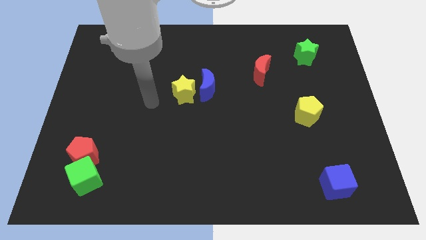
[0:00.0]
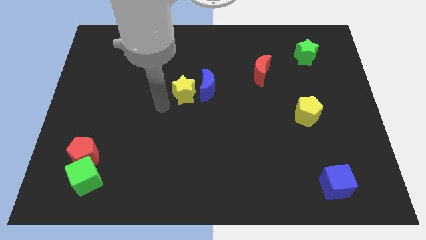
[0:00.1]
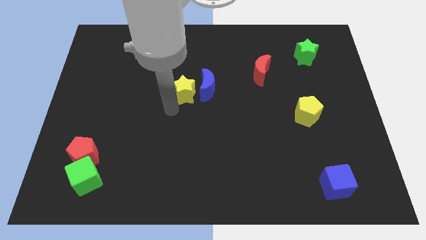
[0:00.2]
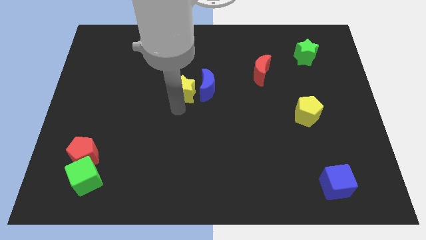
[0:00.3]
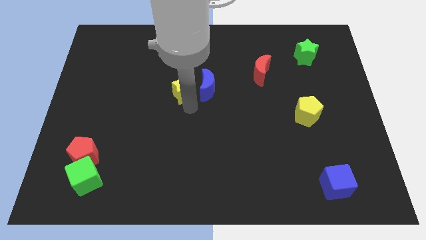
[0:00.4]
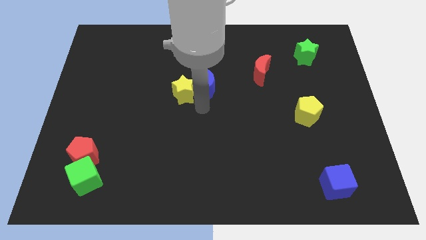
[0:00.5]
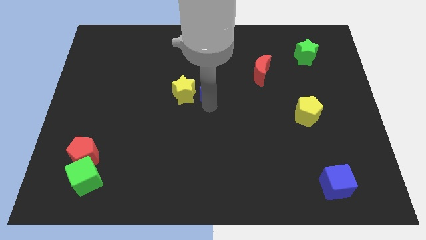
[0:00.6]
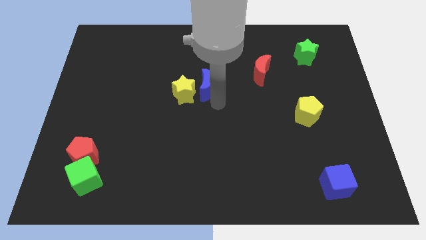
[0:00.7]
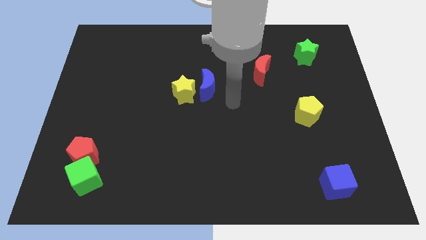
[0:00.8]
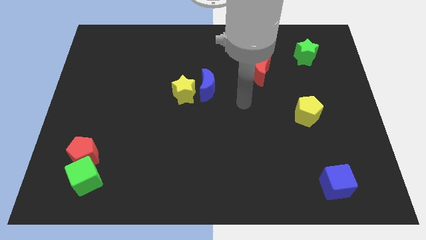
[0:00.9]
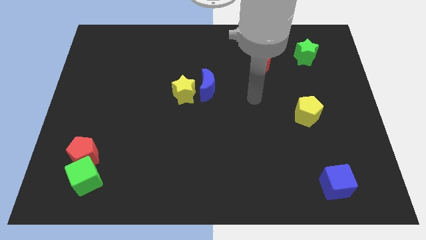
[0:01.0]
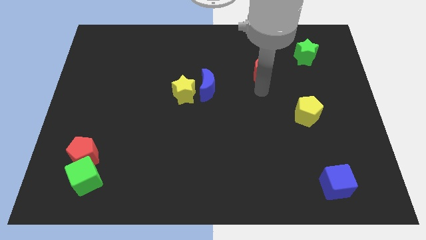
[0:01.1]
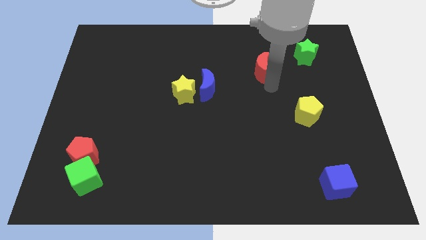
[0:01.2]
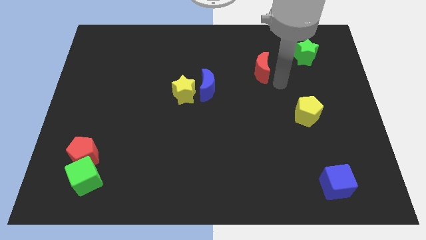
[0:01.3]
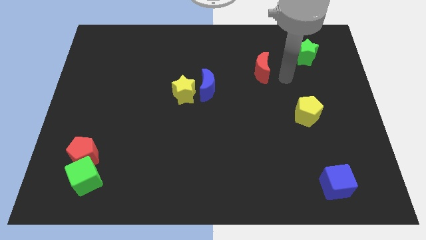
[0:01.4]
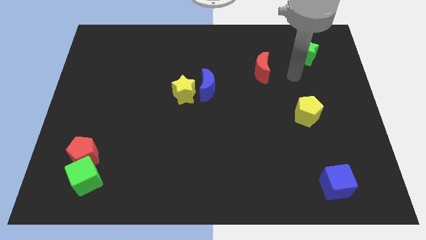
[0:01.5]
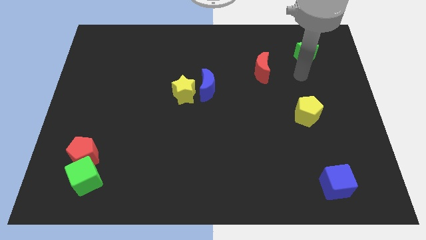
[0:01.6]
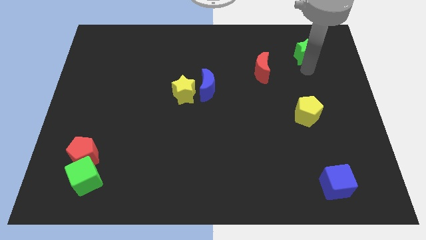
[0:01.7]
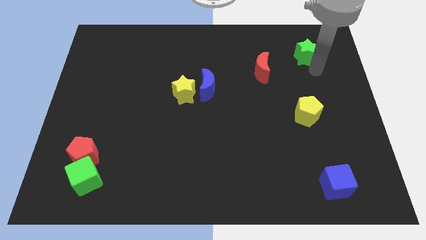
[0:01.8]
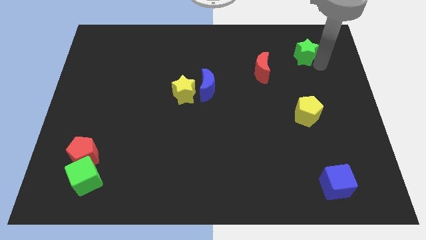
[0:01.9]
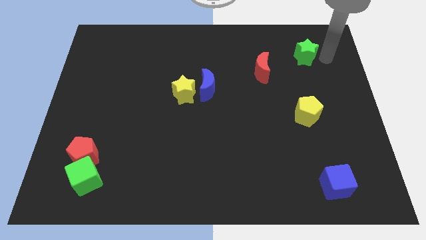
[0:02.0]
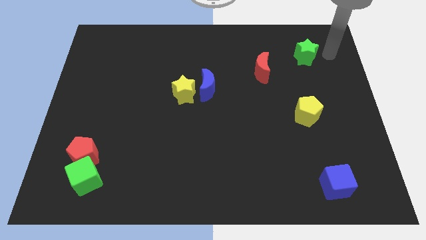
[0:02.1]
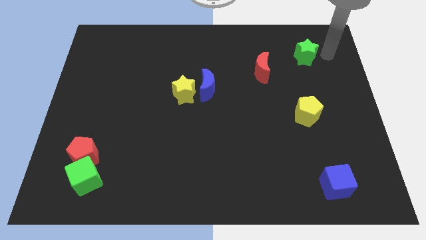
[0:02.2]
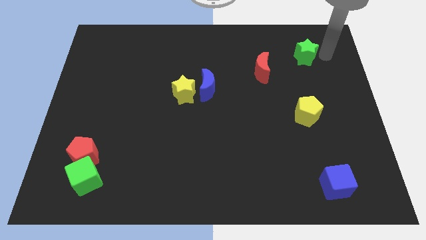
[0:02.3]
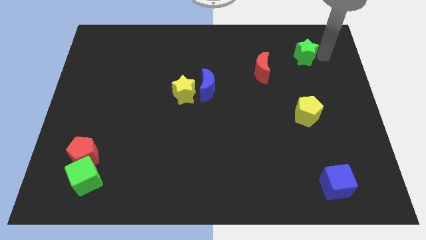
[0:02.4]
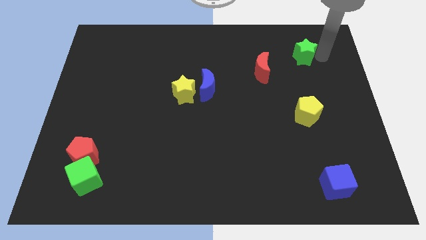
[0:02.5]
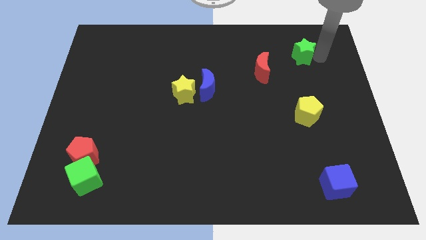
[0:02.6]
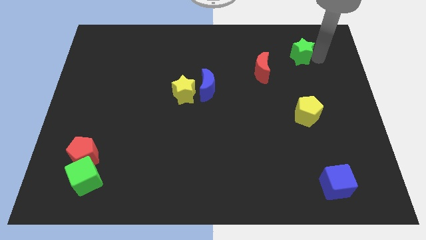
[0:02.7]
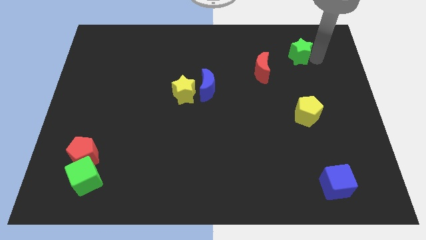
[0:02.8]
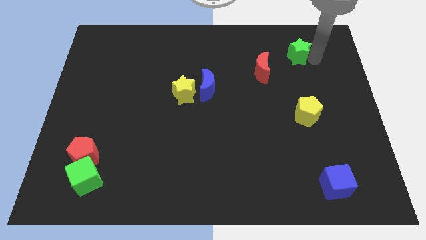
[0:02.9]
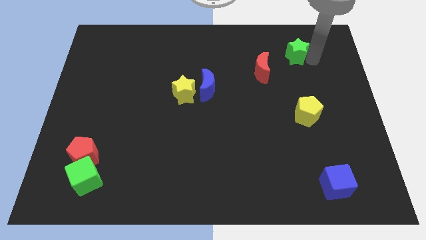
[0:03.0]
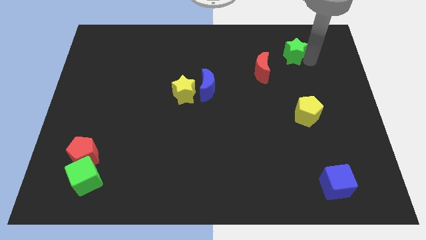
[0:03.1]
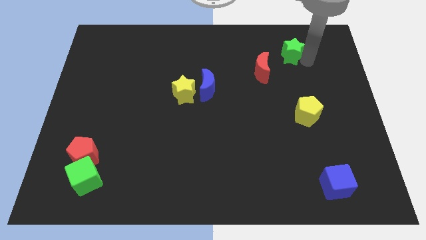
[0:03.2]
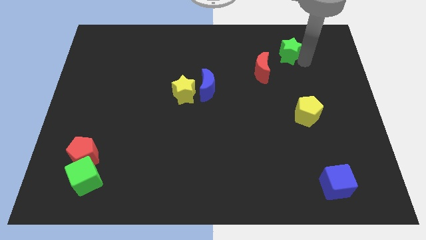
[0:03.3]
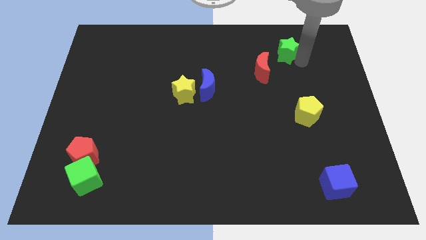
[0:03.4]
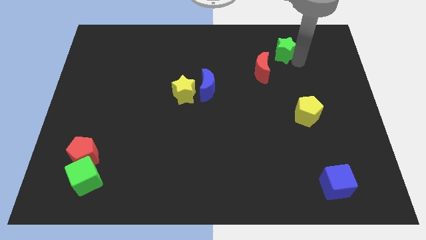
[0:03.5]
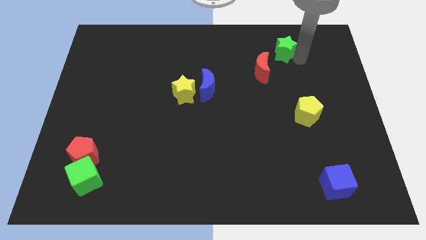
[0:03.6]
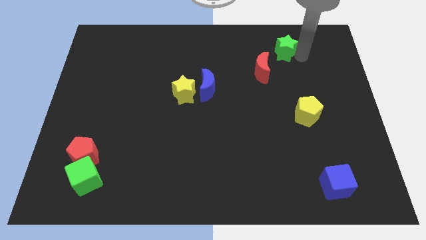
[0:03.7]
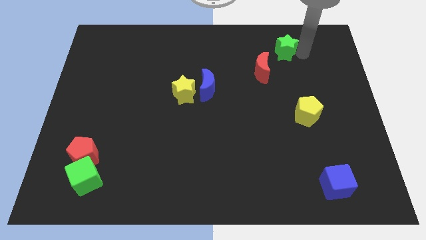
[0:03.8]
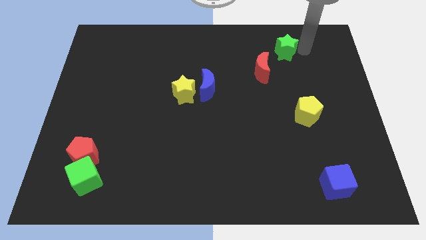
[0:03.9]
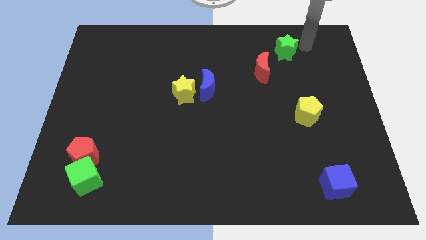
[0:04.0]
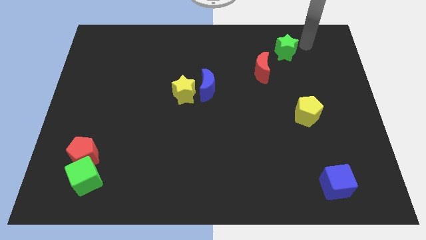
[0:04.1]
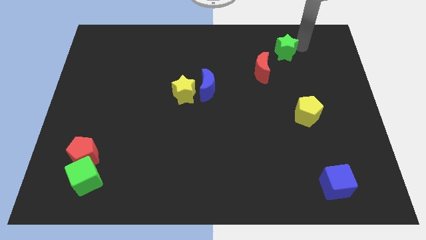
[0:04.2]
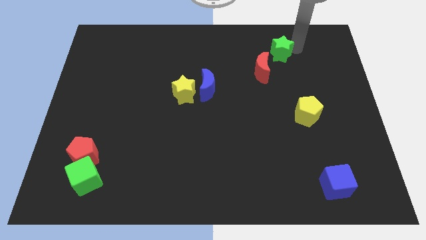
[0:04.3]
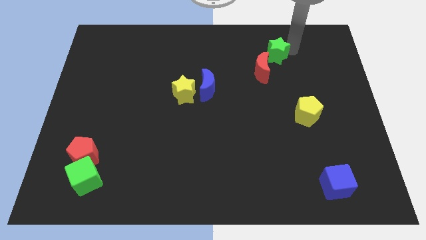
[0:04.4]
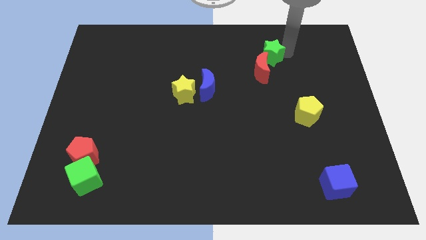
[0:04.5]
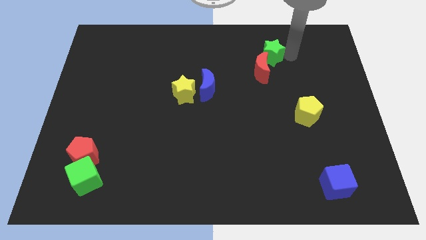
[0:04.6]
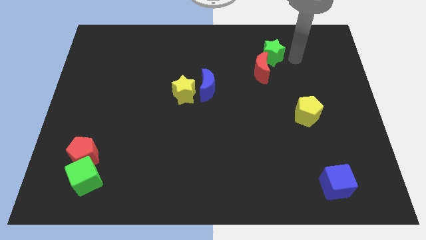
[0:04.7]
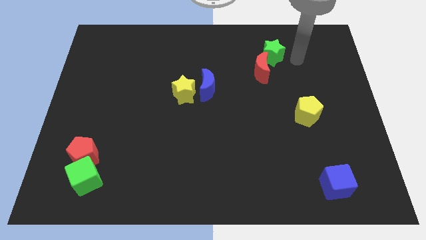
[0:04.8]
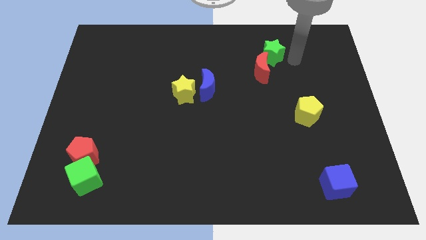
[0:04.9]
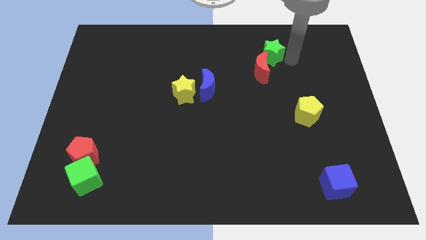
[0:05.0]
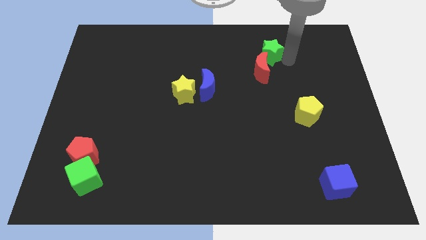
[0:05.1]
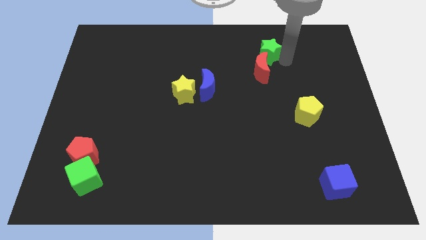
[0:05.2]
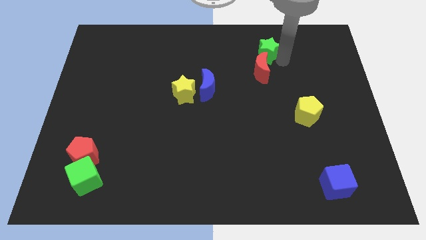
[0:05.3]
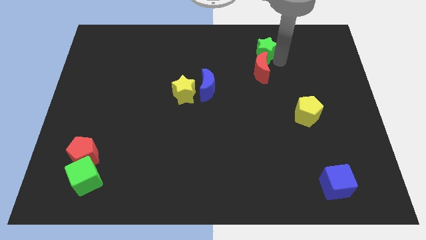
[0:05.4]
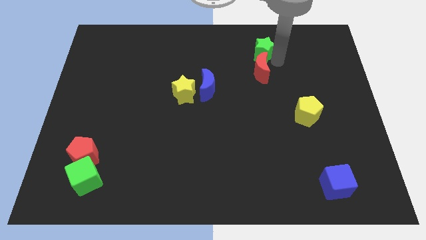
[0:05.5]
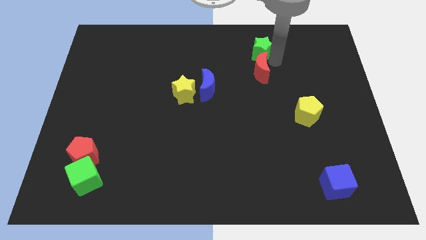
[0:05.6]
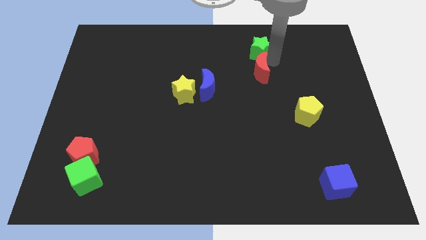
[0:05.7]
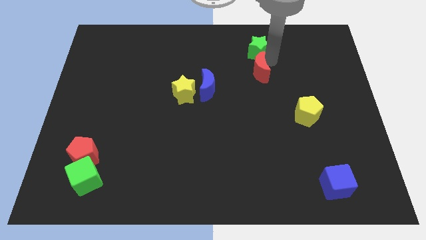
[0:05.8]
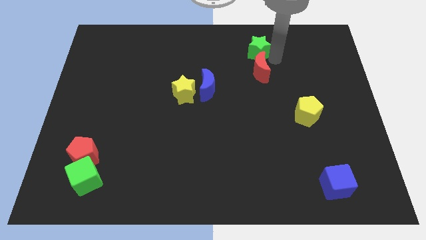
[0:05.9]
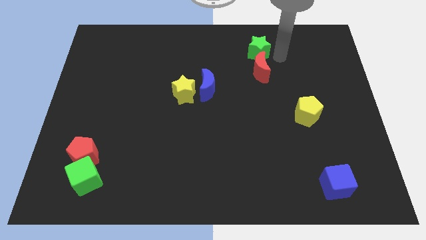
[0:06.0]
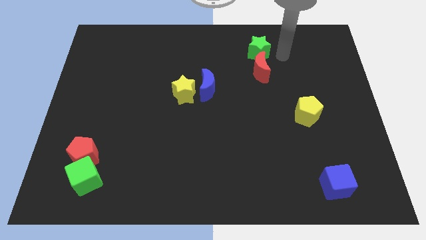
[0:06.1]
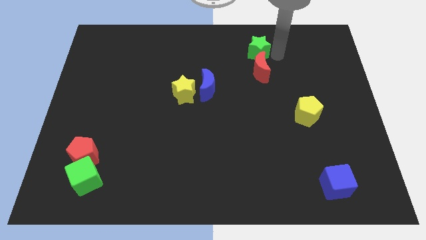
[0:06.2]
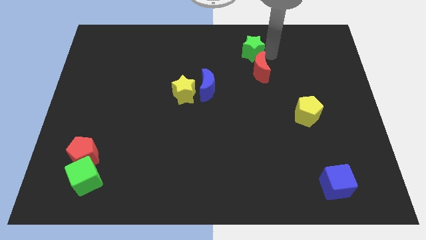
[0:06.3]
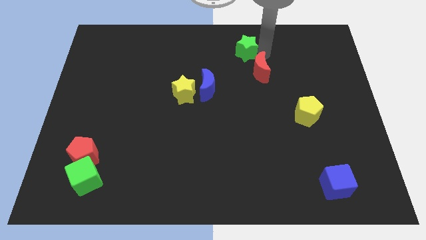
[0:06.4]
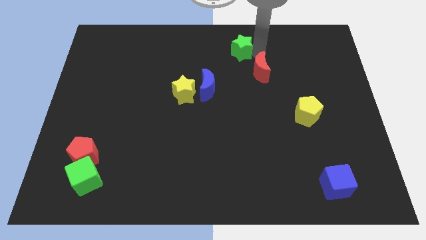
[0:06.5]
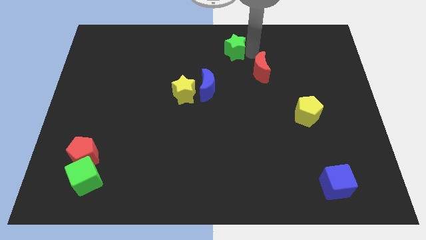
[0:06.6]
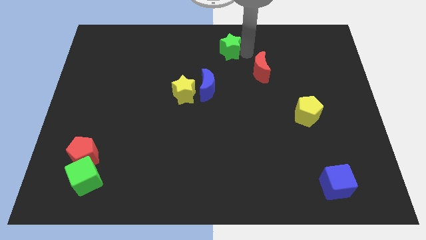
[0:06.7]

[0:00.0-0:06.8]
push the green star left

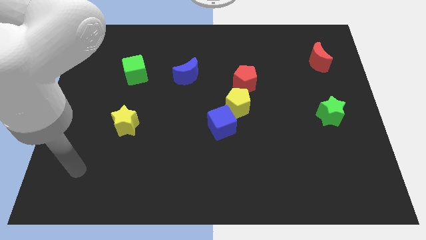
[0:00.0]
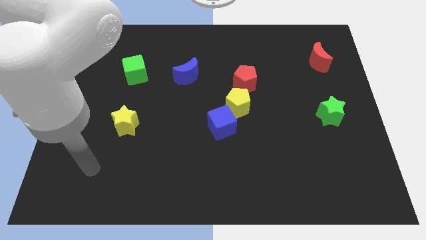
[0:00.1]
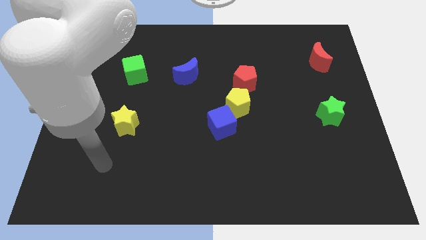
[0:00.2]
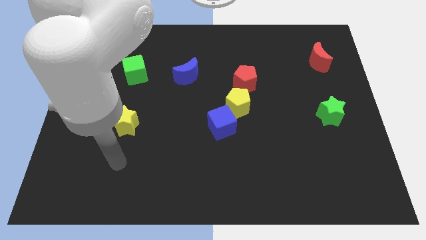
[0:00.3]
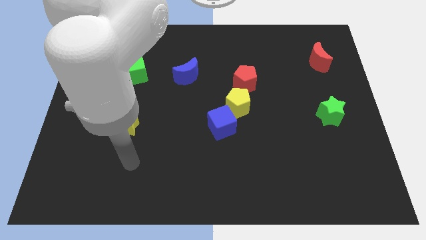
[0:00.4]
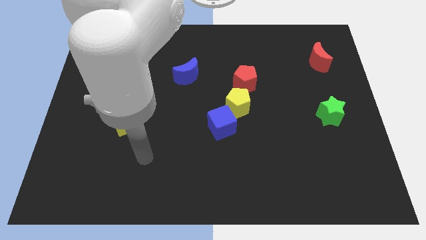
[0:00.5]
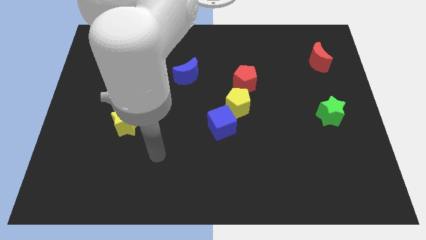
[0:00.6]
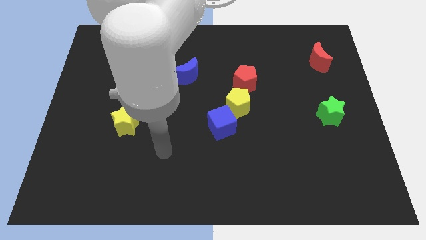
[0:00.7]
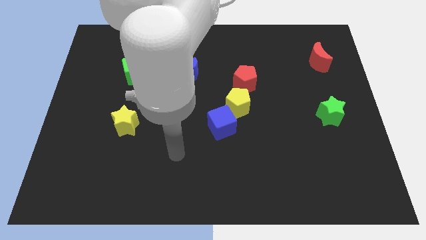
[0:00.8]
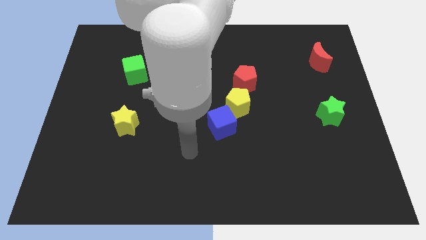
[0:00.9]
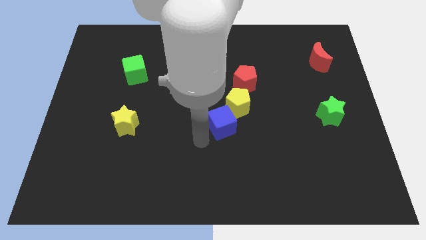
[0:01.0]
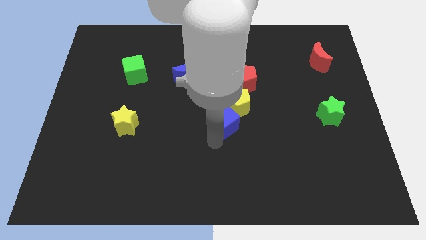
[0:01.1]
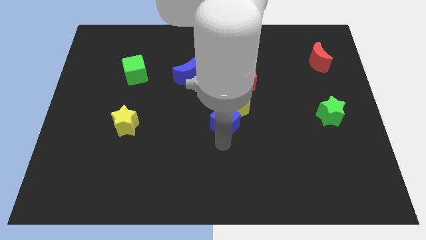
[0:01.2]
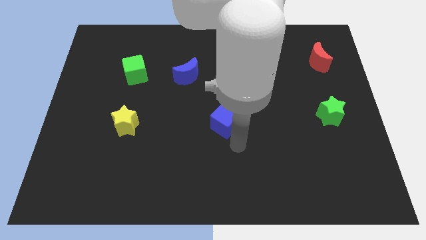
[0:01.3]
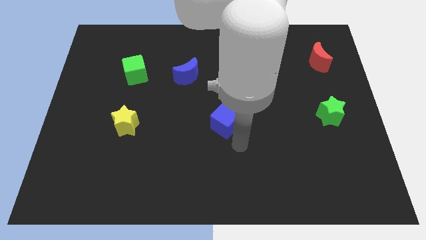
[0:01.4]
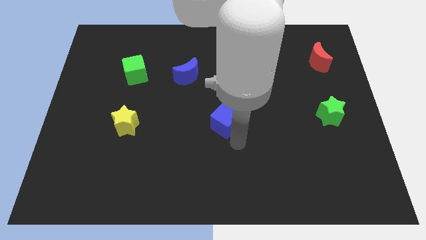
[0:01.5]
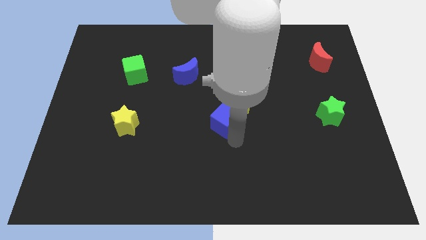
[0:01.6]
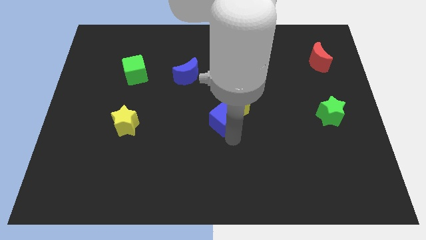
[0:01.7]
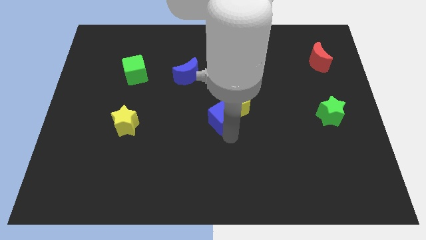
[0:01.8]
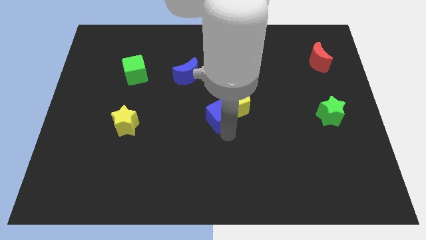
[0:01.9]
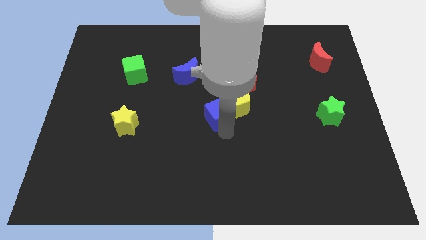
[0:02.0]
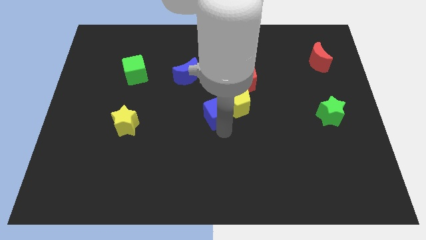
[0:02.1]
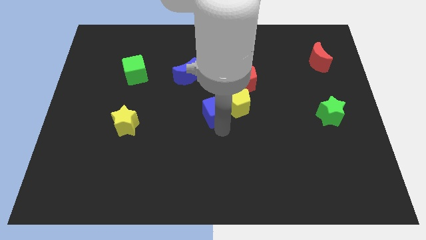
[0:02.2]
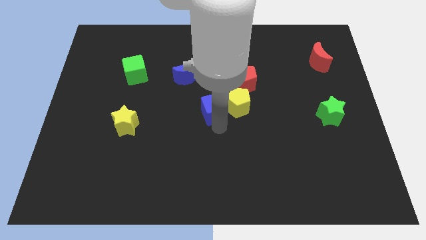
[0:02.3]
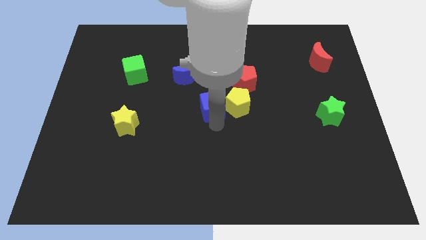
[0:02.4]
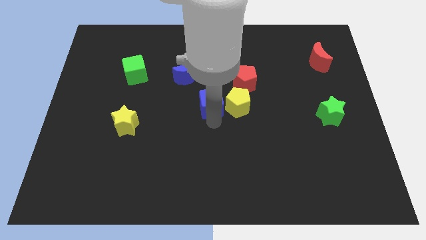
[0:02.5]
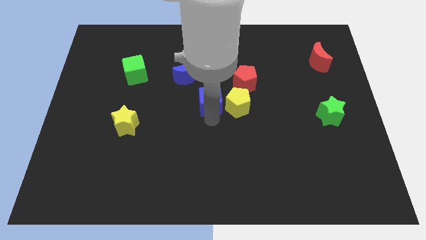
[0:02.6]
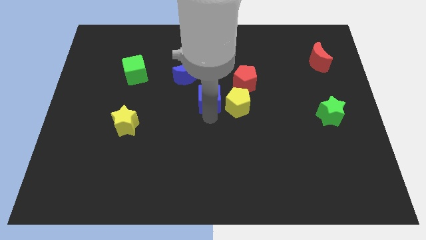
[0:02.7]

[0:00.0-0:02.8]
slightly move the blue cube upwards
